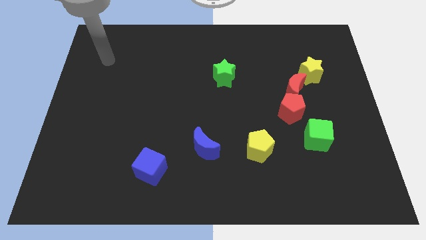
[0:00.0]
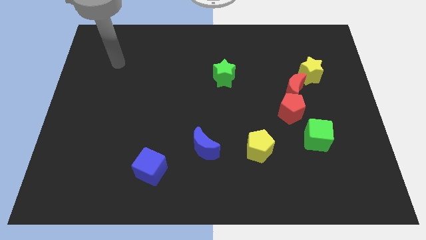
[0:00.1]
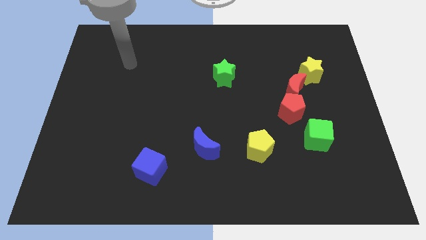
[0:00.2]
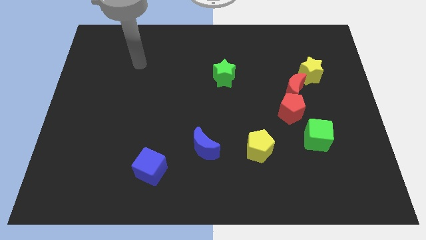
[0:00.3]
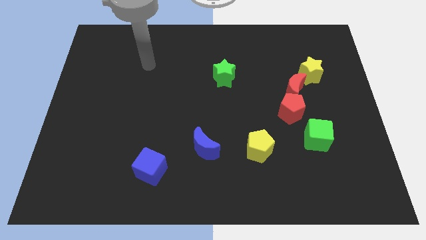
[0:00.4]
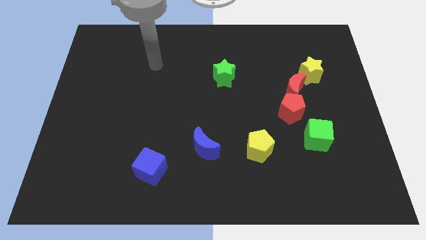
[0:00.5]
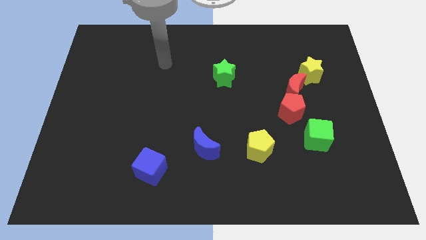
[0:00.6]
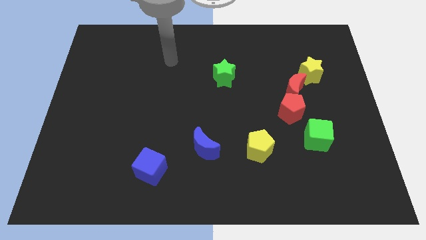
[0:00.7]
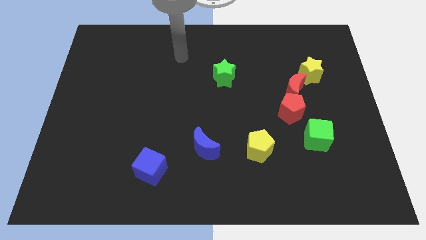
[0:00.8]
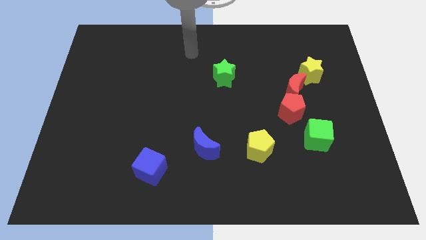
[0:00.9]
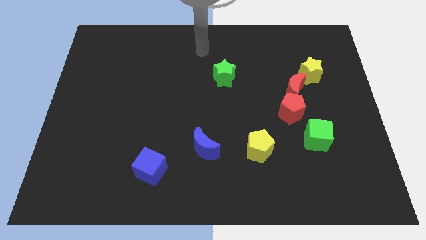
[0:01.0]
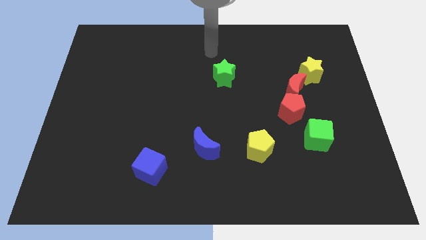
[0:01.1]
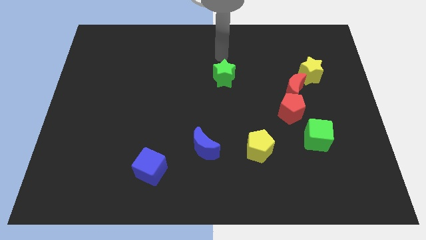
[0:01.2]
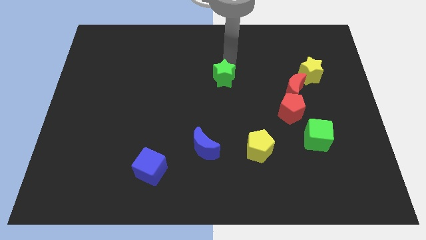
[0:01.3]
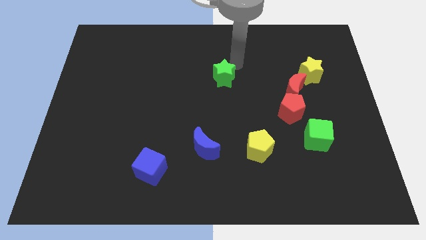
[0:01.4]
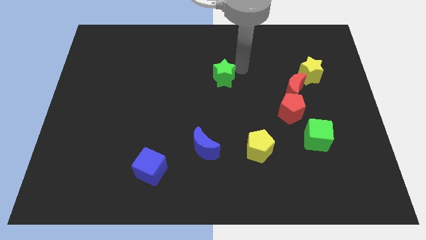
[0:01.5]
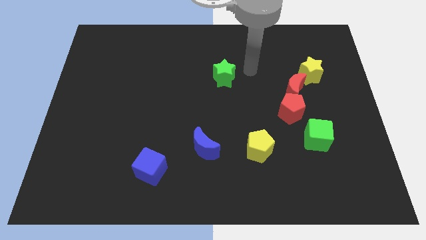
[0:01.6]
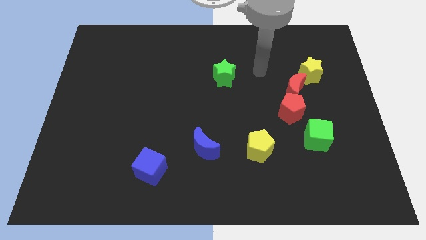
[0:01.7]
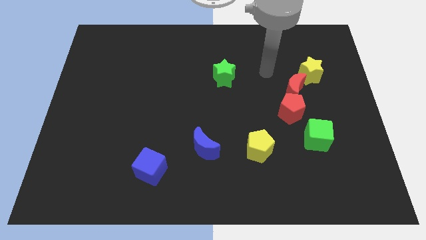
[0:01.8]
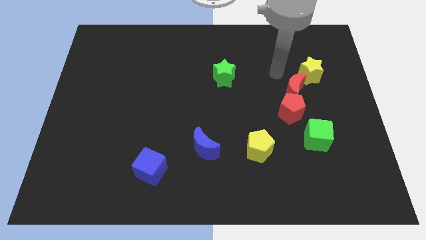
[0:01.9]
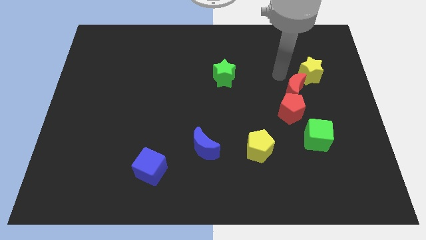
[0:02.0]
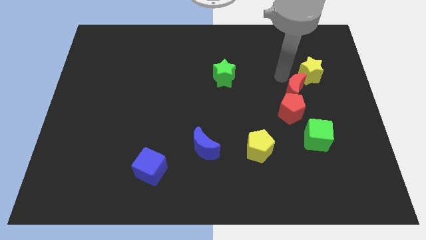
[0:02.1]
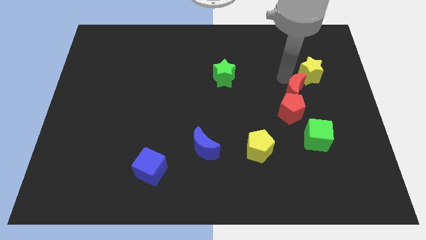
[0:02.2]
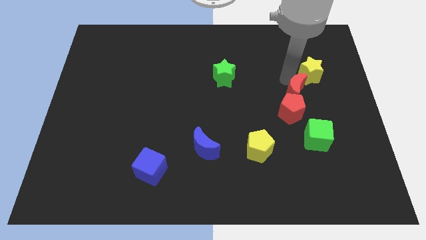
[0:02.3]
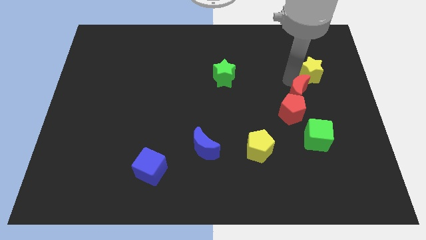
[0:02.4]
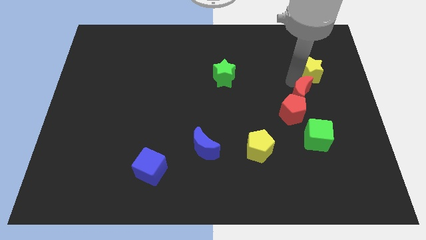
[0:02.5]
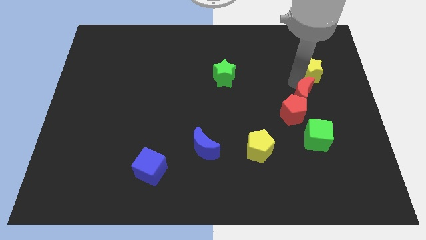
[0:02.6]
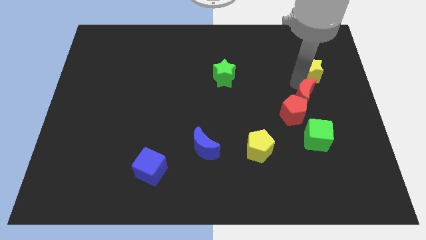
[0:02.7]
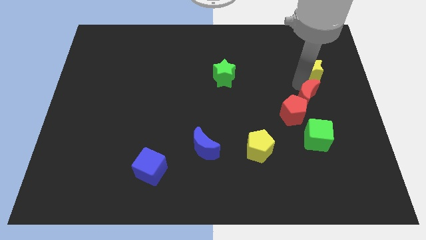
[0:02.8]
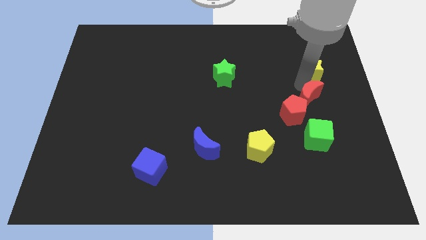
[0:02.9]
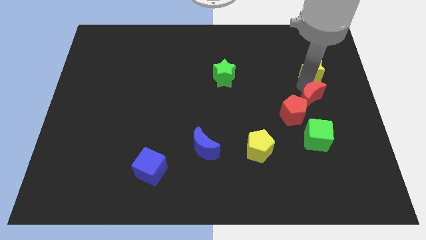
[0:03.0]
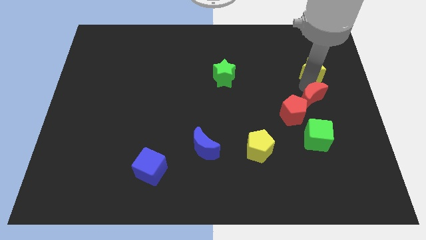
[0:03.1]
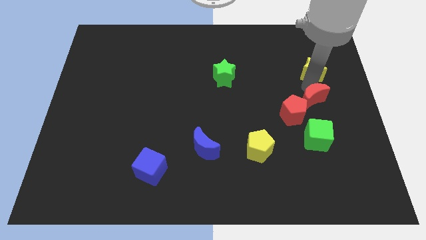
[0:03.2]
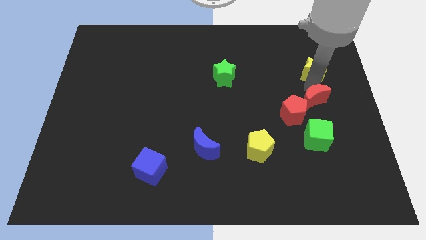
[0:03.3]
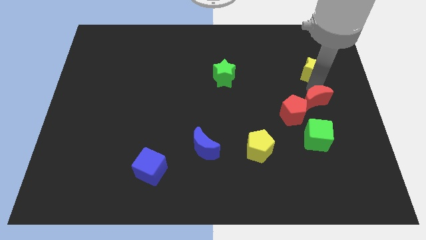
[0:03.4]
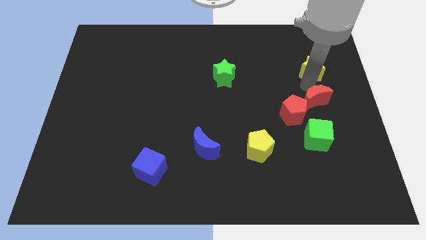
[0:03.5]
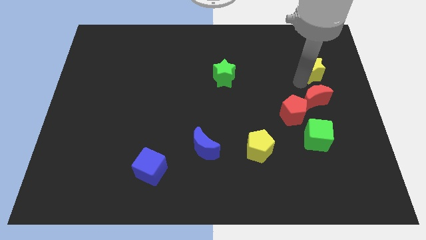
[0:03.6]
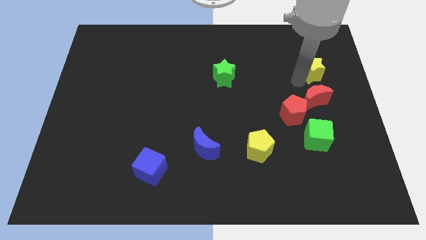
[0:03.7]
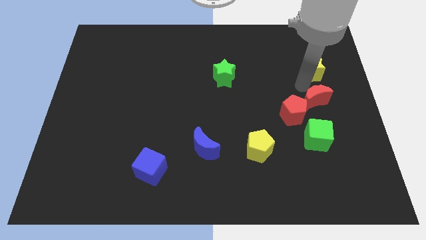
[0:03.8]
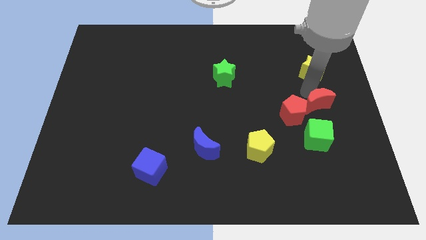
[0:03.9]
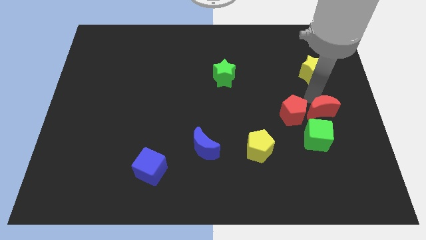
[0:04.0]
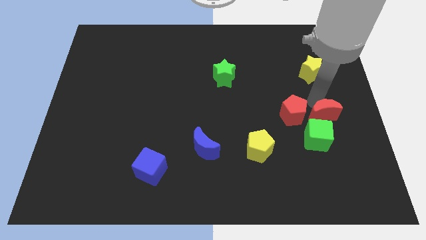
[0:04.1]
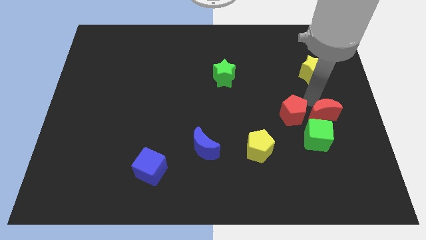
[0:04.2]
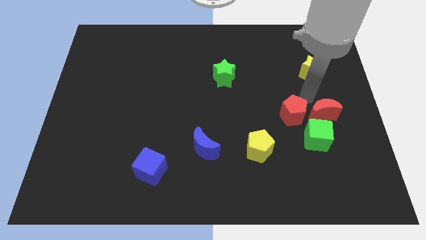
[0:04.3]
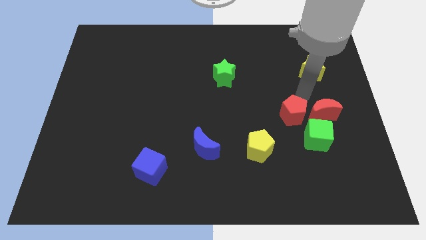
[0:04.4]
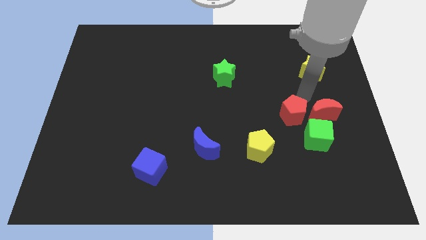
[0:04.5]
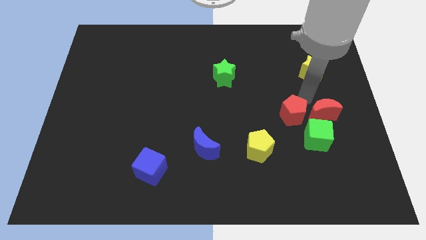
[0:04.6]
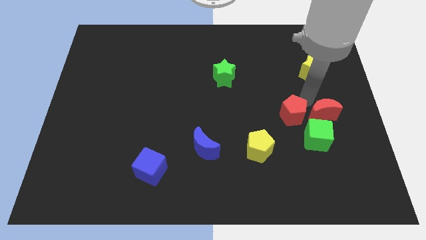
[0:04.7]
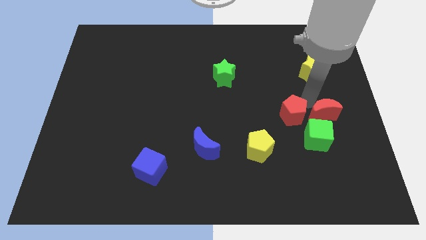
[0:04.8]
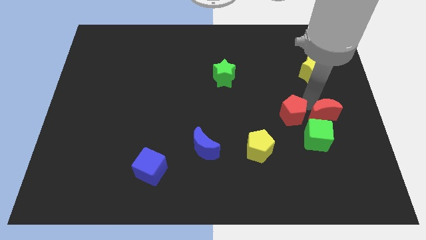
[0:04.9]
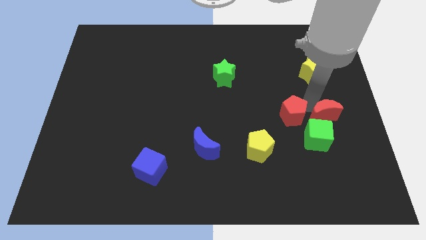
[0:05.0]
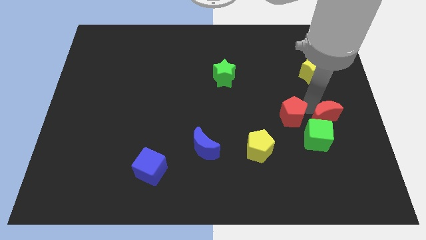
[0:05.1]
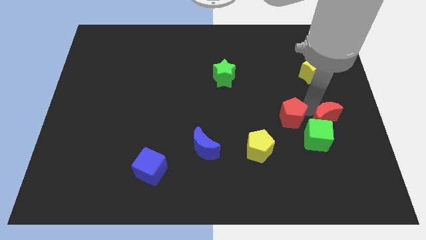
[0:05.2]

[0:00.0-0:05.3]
move the red moon downwards a little

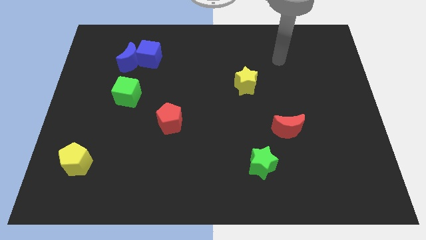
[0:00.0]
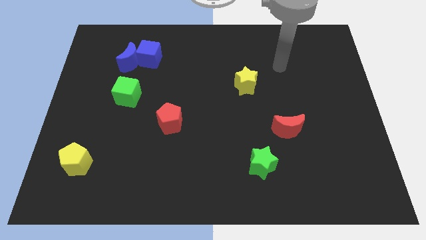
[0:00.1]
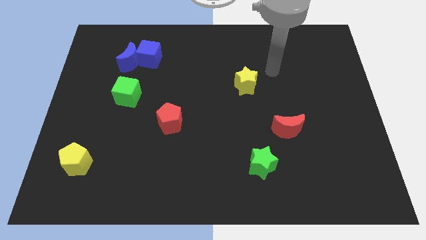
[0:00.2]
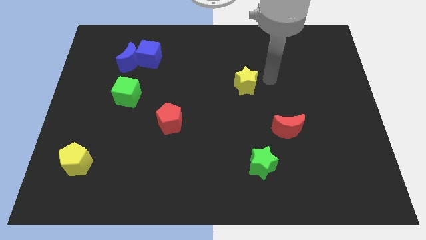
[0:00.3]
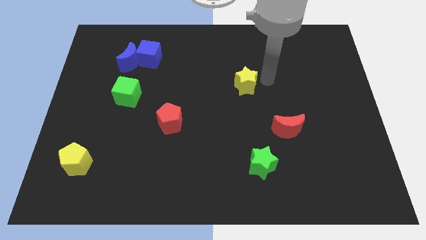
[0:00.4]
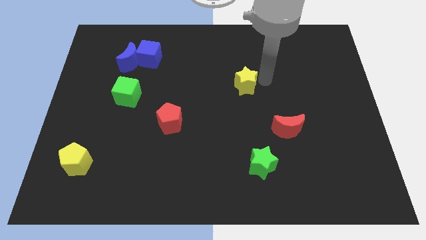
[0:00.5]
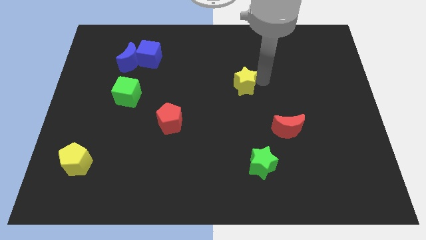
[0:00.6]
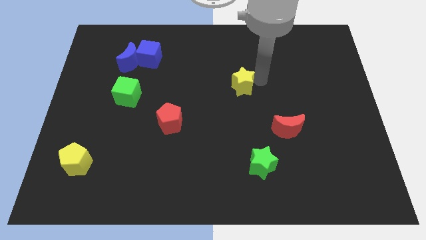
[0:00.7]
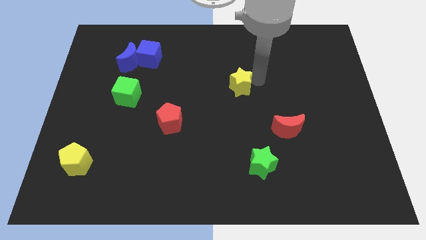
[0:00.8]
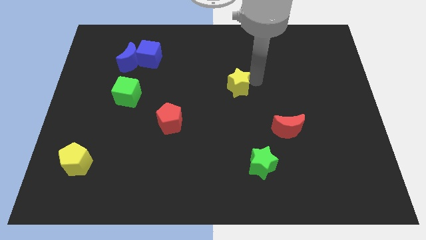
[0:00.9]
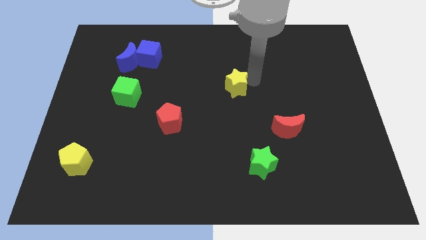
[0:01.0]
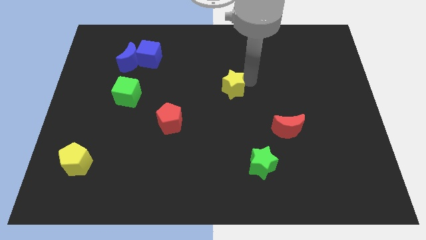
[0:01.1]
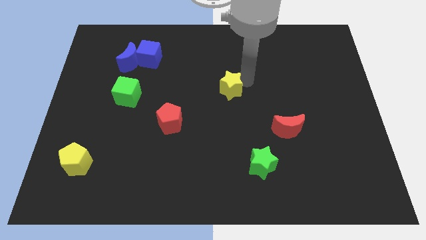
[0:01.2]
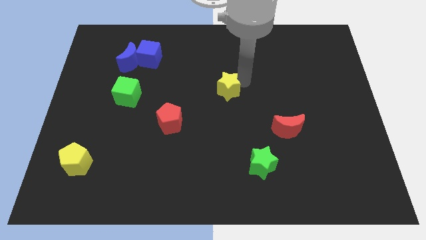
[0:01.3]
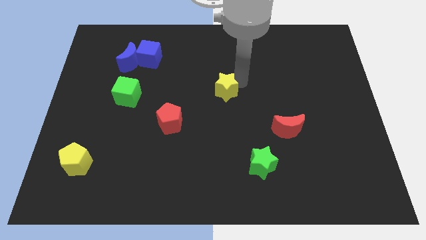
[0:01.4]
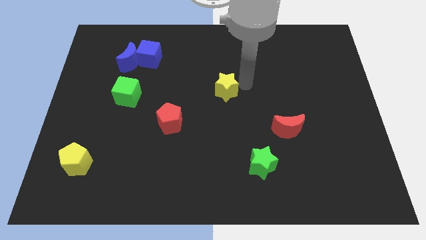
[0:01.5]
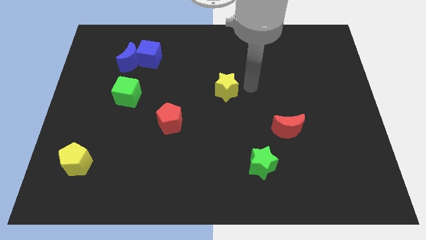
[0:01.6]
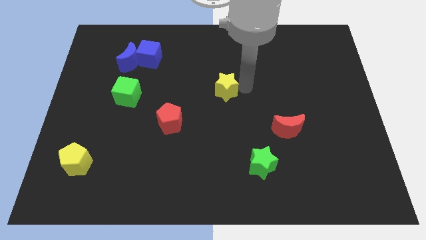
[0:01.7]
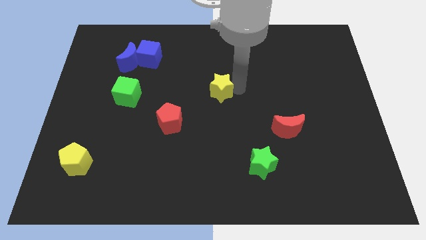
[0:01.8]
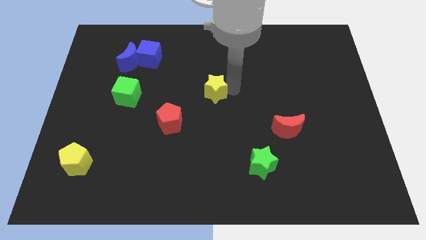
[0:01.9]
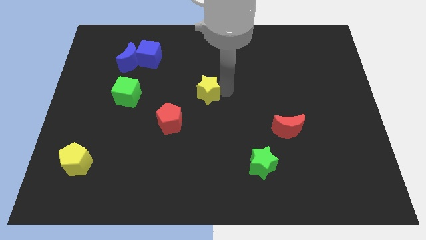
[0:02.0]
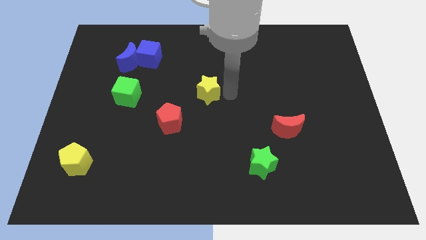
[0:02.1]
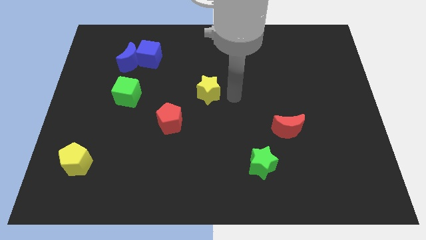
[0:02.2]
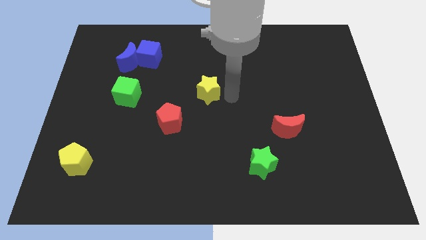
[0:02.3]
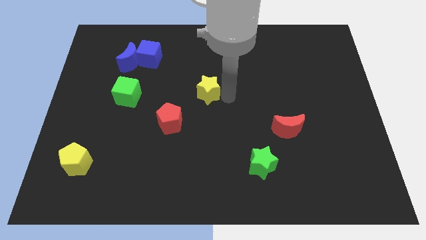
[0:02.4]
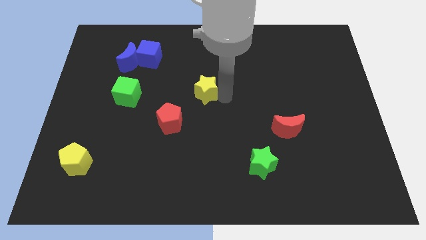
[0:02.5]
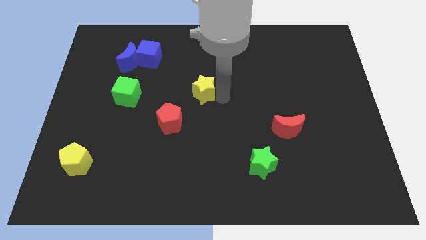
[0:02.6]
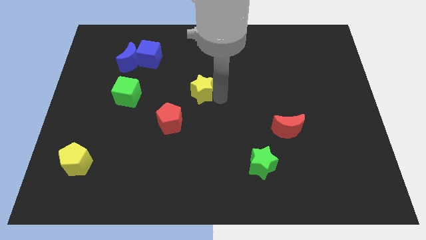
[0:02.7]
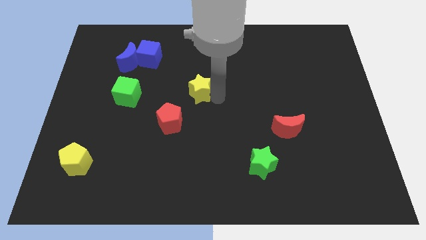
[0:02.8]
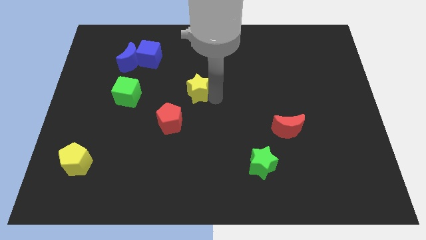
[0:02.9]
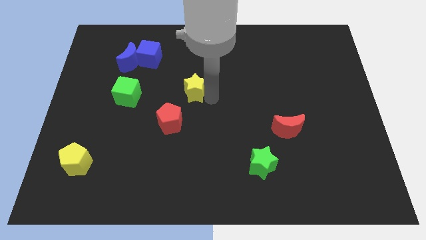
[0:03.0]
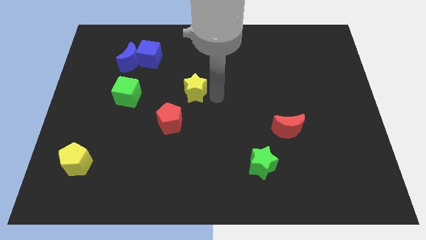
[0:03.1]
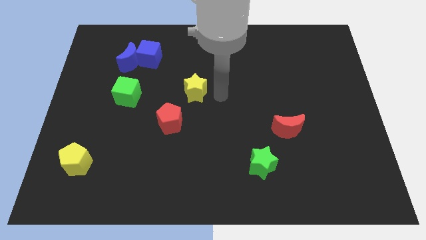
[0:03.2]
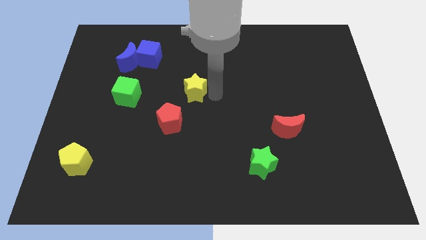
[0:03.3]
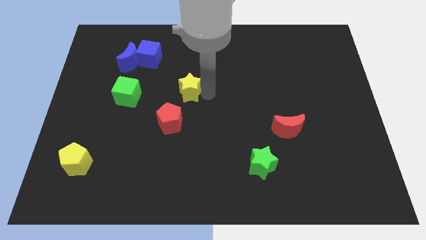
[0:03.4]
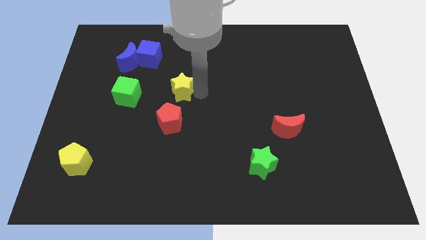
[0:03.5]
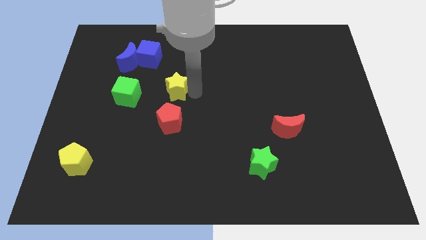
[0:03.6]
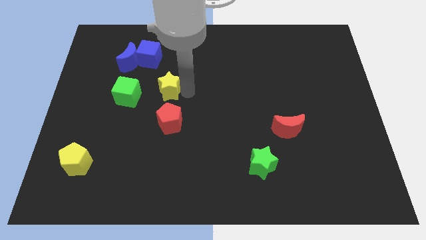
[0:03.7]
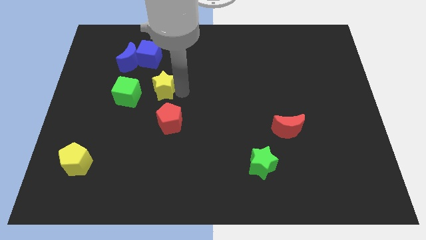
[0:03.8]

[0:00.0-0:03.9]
slide the yellow star left
